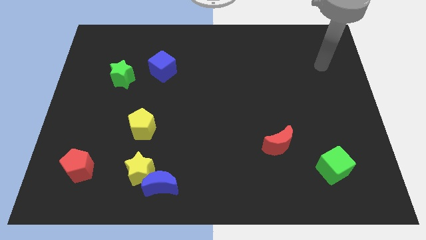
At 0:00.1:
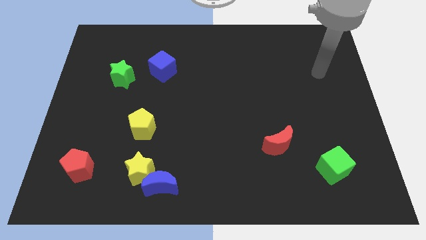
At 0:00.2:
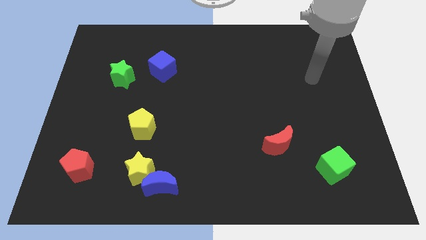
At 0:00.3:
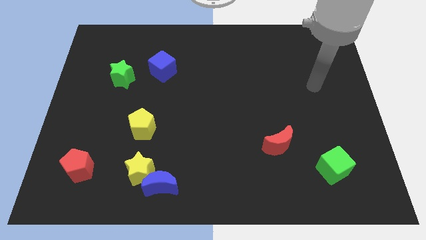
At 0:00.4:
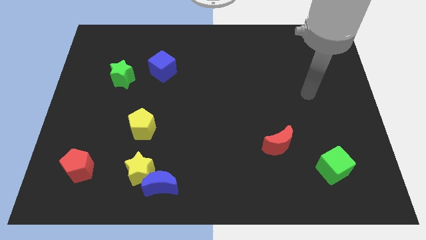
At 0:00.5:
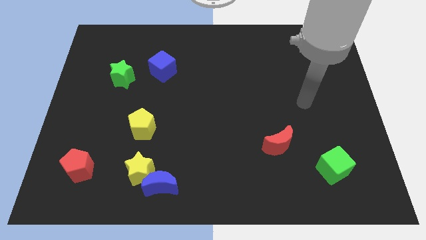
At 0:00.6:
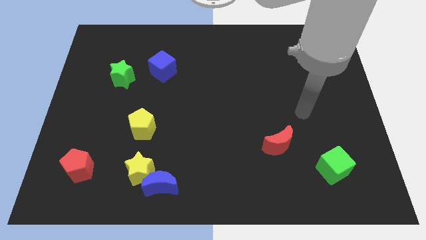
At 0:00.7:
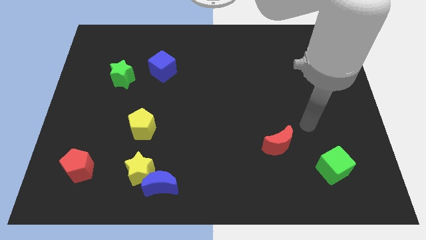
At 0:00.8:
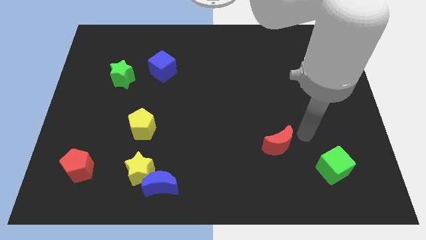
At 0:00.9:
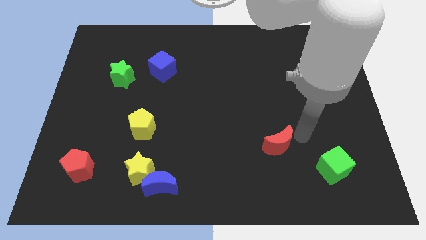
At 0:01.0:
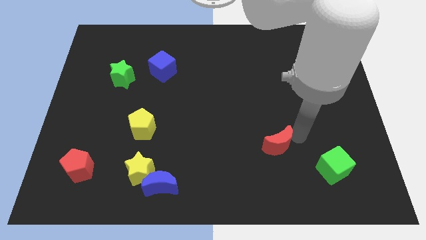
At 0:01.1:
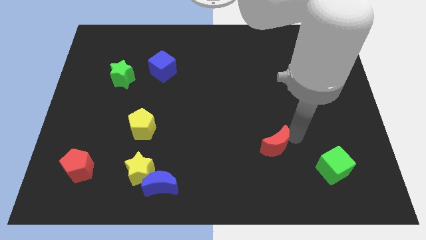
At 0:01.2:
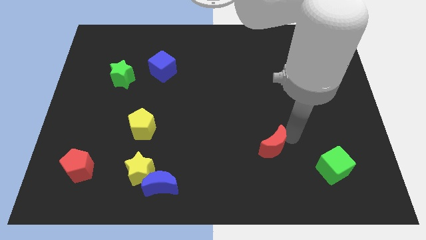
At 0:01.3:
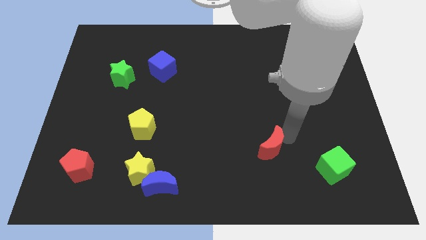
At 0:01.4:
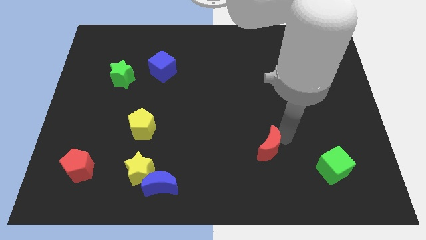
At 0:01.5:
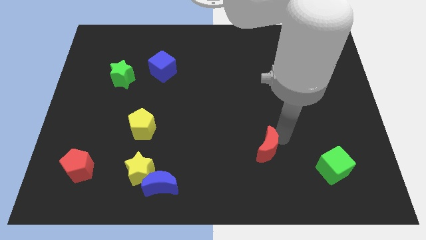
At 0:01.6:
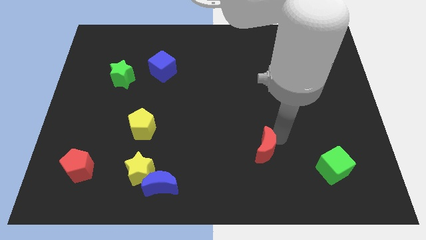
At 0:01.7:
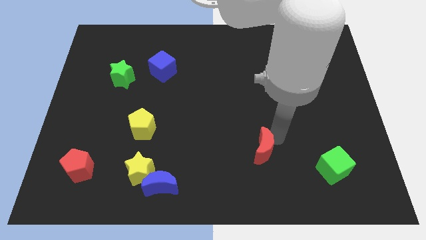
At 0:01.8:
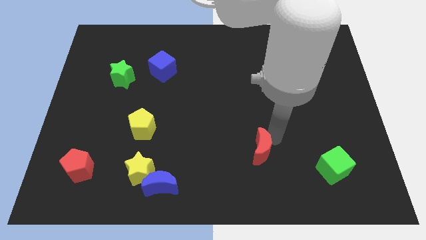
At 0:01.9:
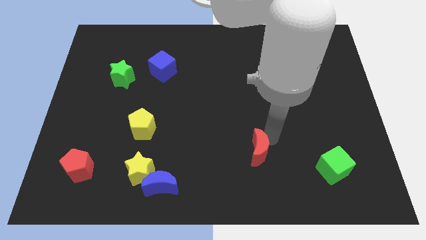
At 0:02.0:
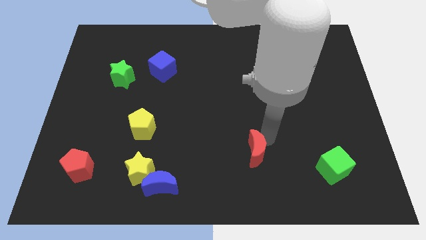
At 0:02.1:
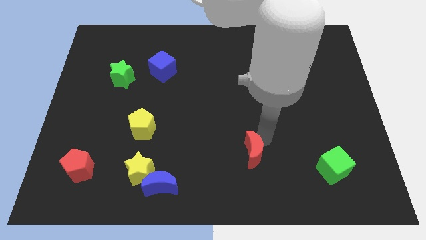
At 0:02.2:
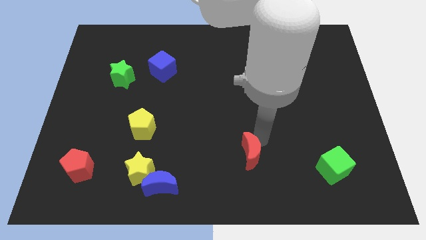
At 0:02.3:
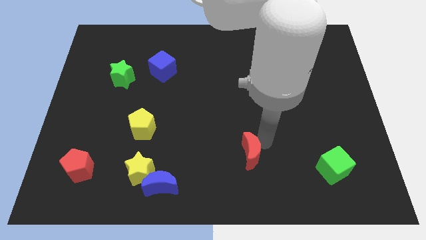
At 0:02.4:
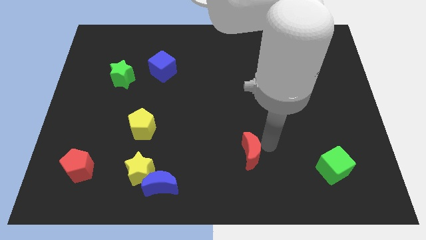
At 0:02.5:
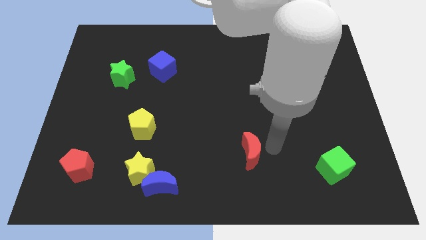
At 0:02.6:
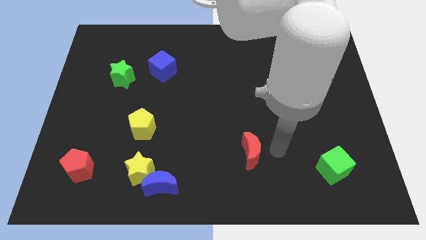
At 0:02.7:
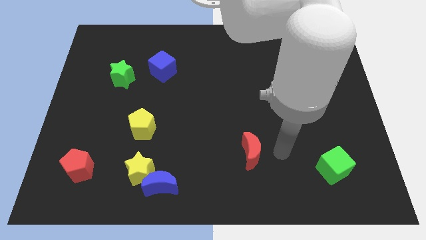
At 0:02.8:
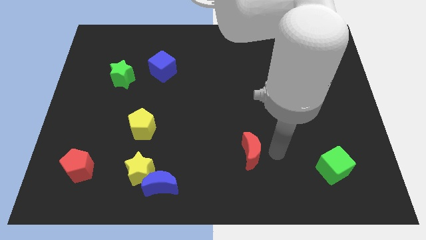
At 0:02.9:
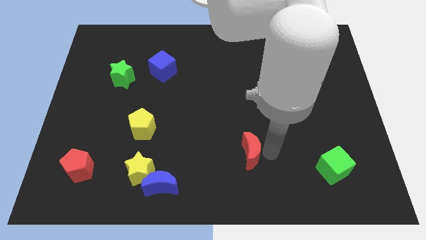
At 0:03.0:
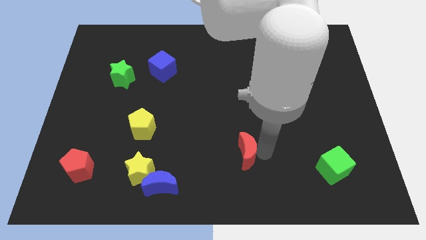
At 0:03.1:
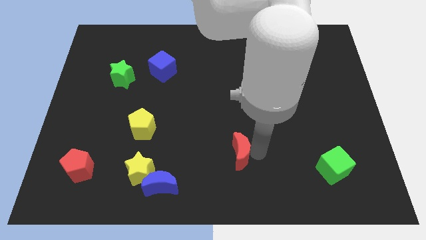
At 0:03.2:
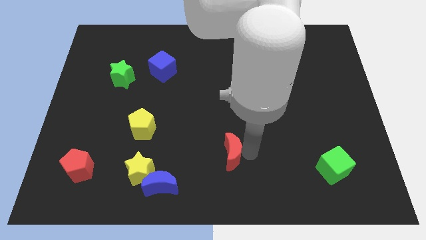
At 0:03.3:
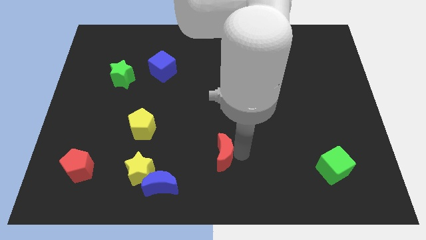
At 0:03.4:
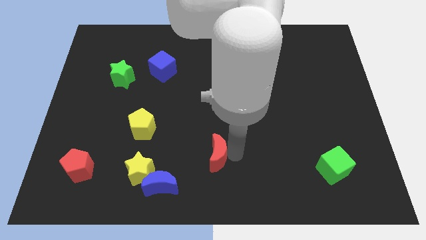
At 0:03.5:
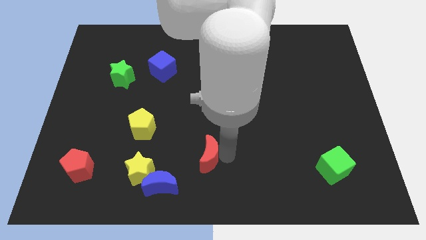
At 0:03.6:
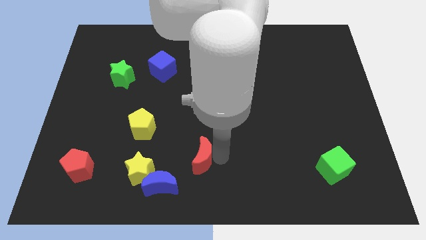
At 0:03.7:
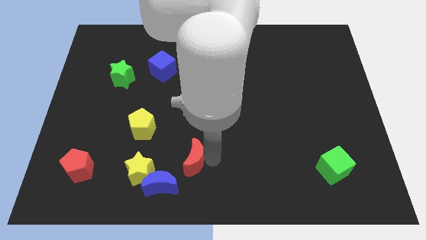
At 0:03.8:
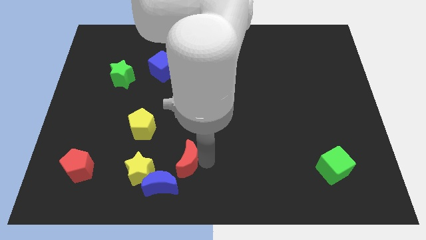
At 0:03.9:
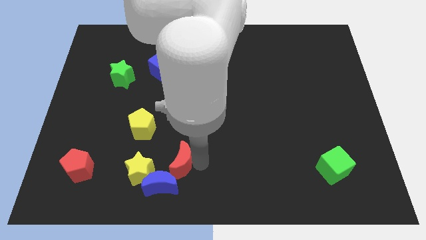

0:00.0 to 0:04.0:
move the red moon to the left

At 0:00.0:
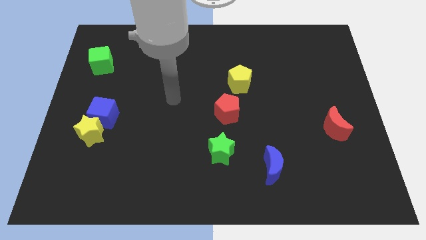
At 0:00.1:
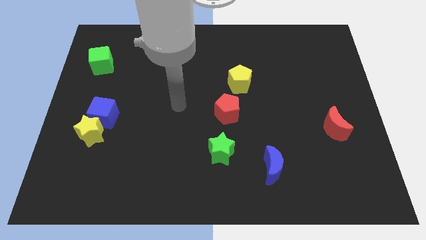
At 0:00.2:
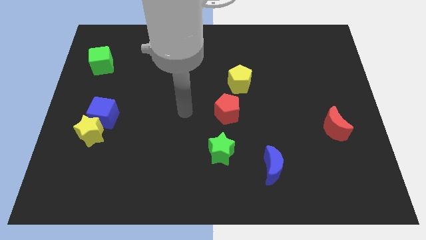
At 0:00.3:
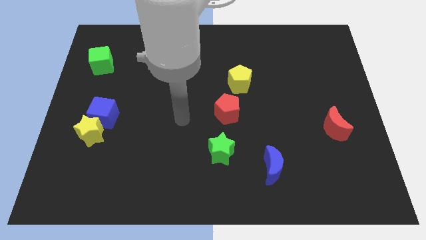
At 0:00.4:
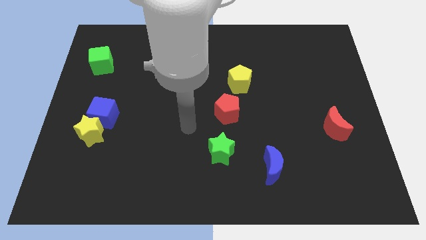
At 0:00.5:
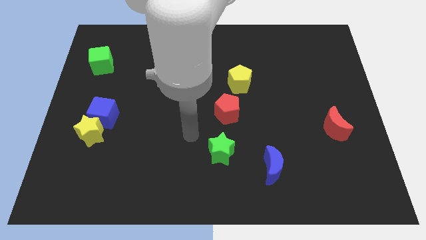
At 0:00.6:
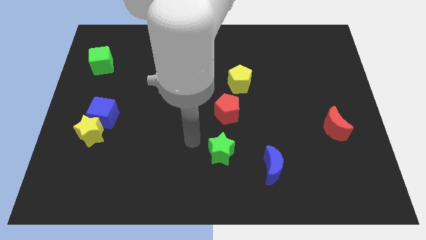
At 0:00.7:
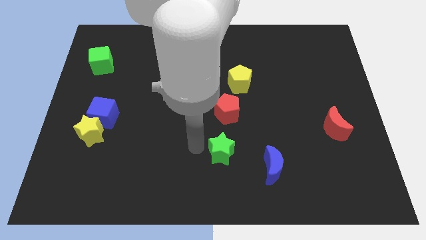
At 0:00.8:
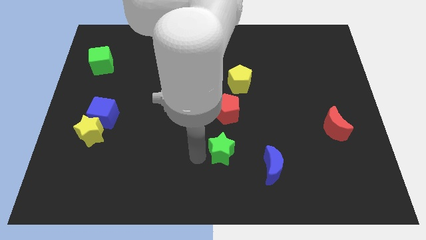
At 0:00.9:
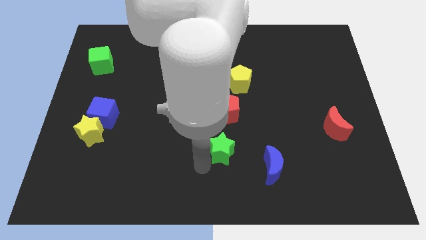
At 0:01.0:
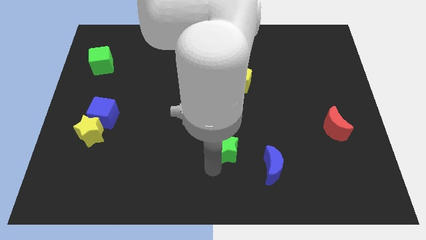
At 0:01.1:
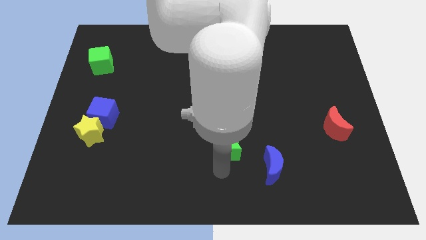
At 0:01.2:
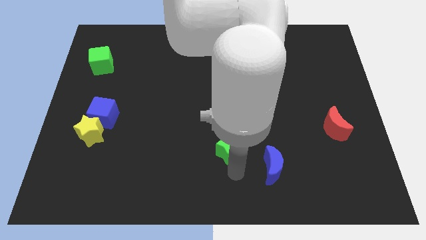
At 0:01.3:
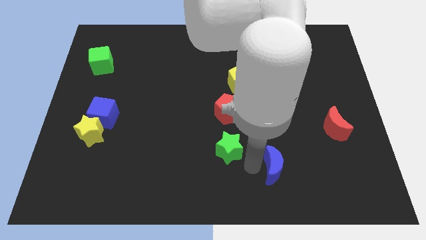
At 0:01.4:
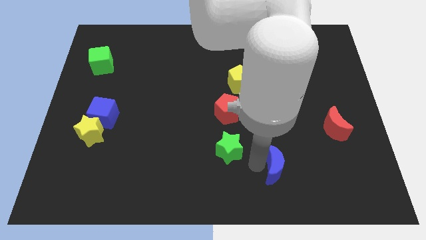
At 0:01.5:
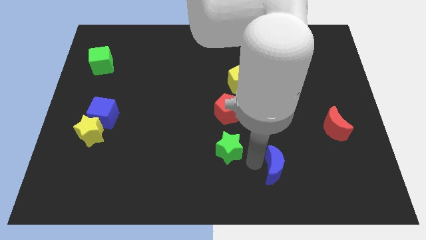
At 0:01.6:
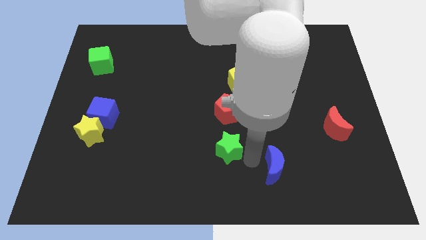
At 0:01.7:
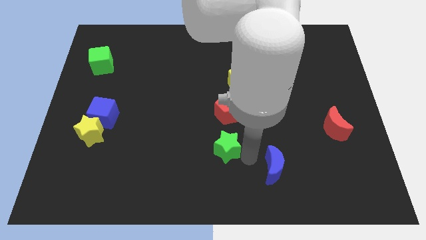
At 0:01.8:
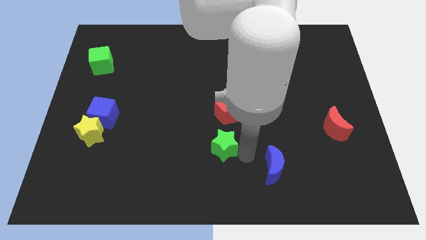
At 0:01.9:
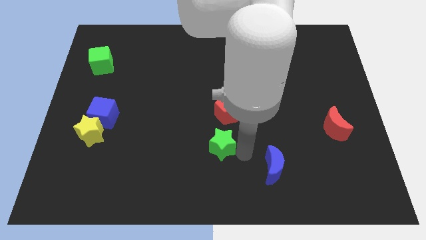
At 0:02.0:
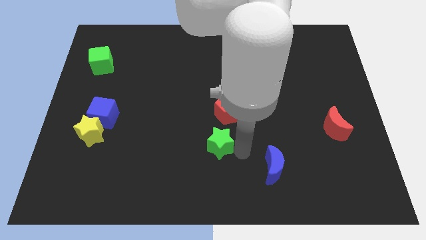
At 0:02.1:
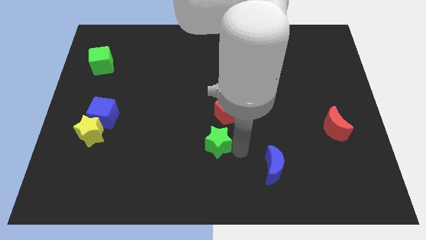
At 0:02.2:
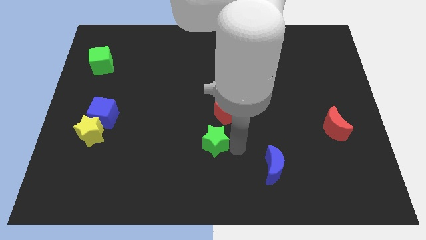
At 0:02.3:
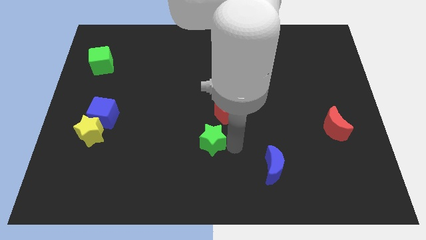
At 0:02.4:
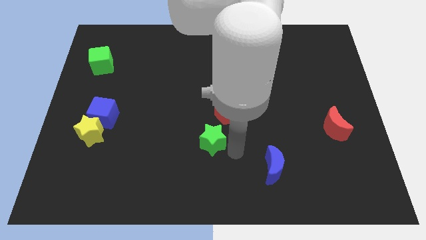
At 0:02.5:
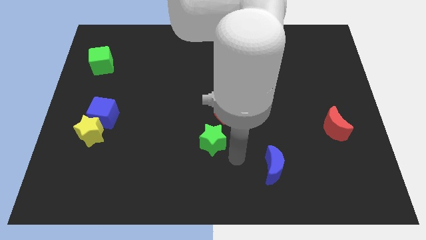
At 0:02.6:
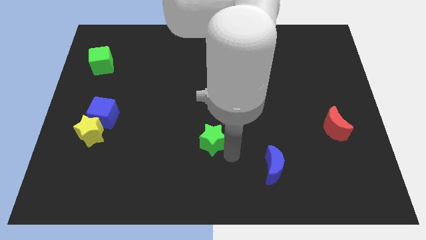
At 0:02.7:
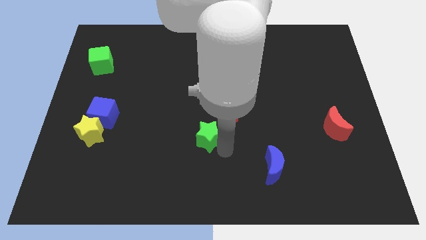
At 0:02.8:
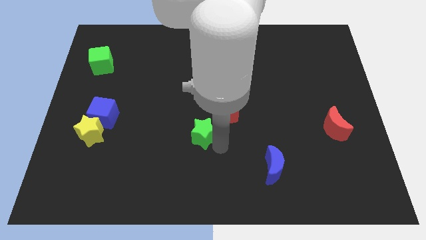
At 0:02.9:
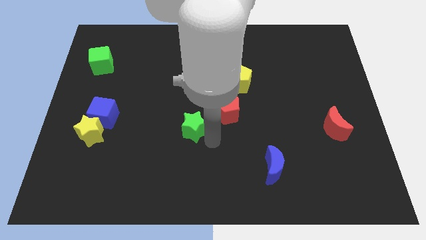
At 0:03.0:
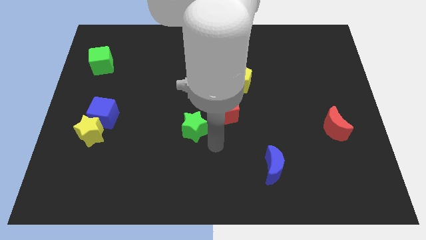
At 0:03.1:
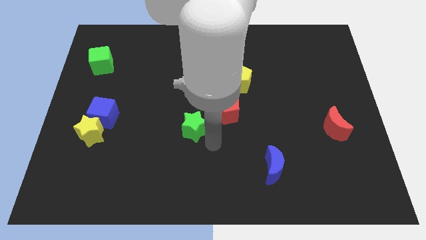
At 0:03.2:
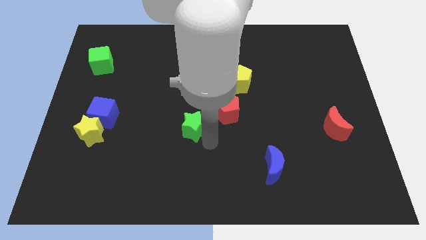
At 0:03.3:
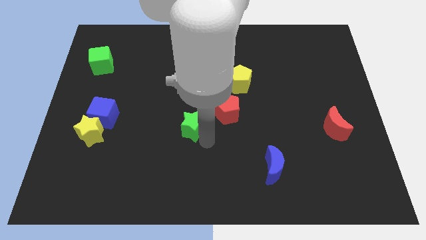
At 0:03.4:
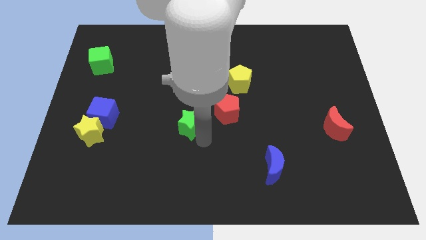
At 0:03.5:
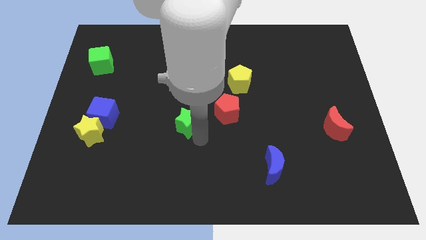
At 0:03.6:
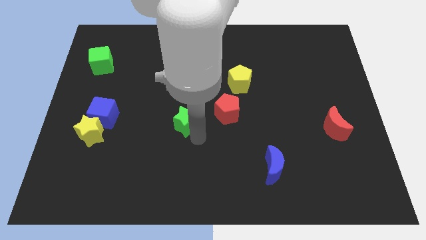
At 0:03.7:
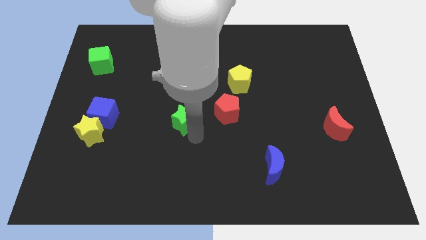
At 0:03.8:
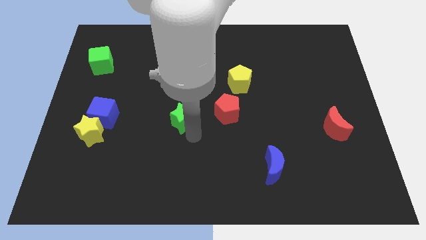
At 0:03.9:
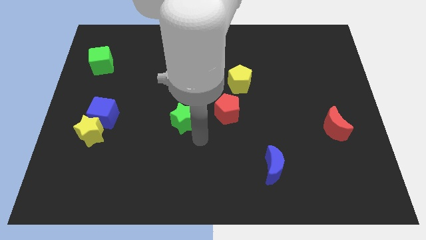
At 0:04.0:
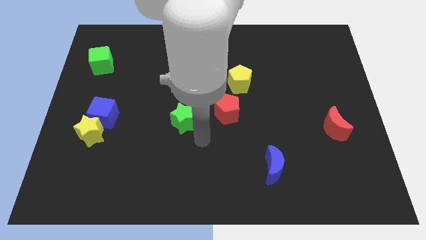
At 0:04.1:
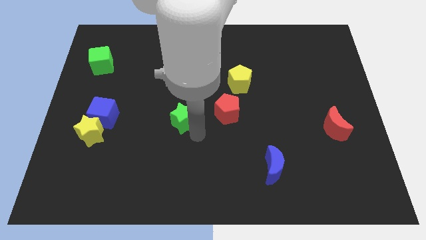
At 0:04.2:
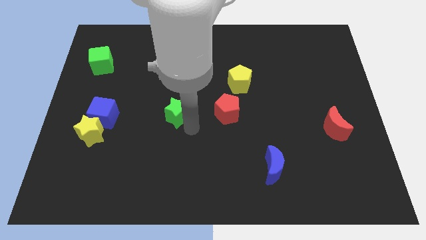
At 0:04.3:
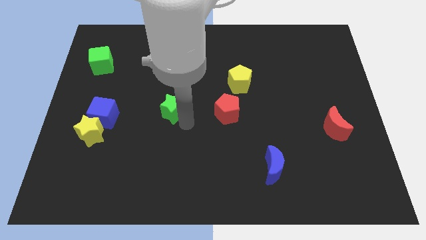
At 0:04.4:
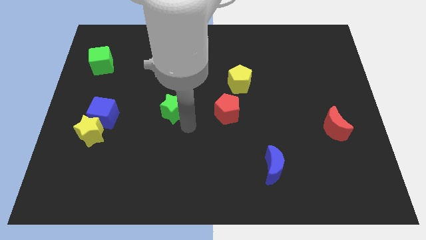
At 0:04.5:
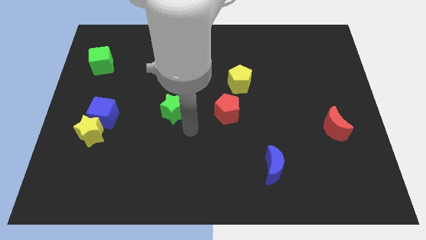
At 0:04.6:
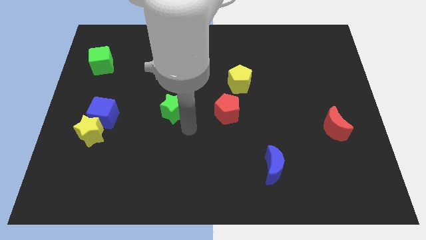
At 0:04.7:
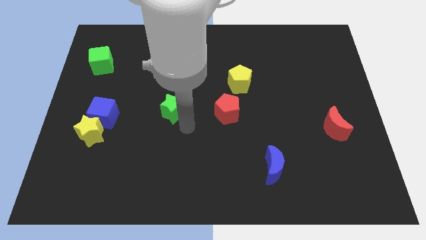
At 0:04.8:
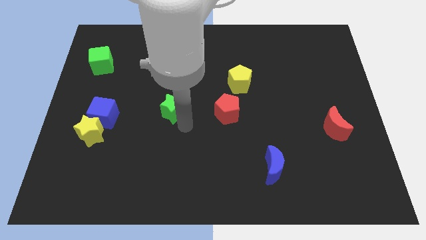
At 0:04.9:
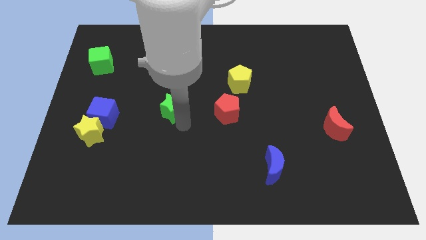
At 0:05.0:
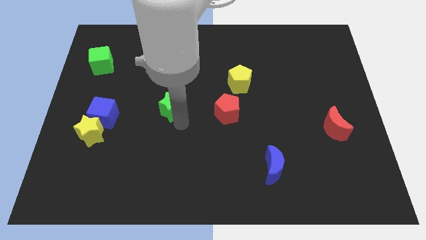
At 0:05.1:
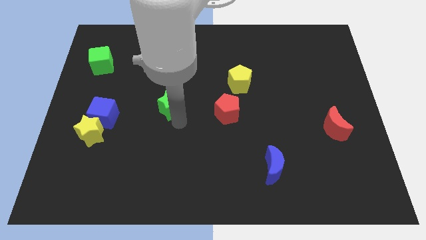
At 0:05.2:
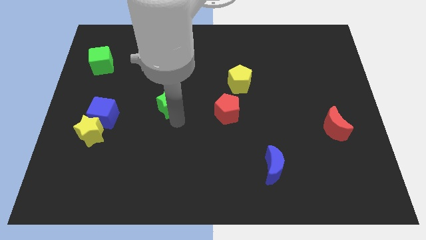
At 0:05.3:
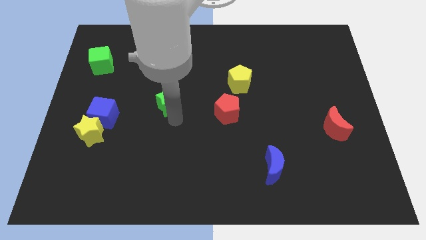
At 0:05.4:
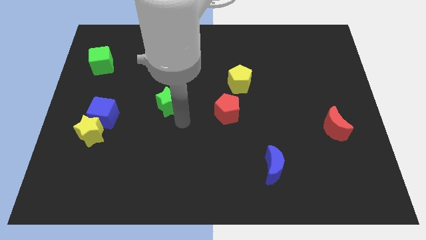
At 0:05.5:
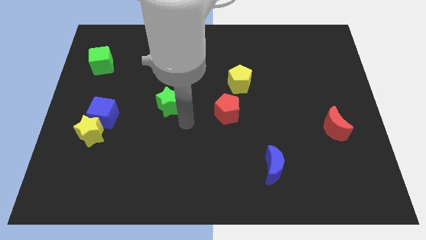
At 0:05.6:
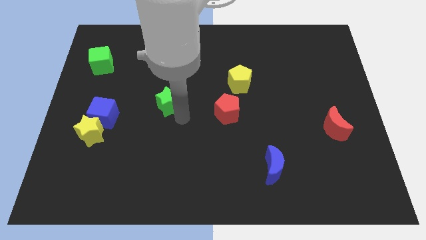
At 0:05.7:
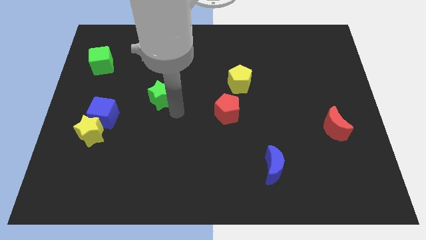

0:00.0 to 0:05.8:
move the green star up and then to the left
